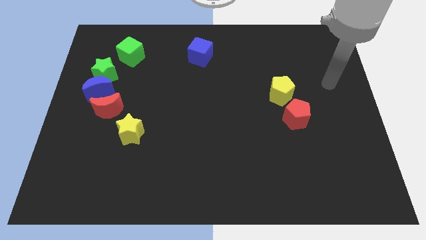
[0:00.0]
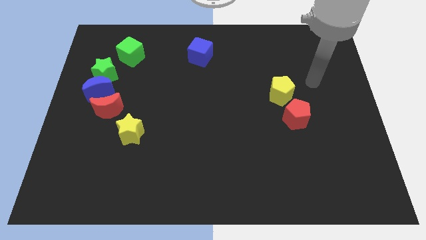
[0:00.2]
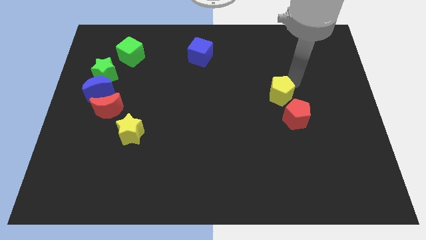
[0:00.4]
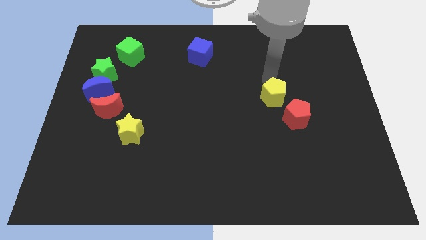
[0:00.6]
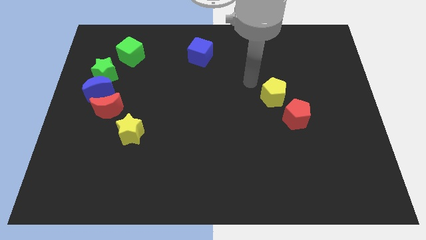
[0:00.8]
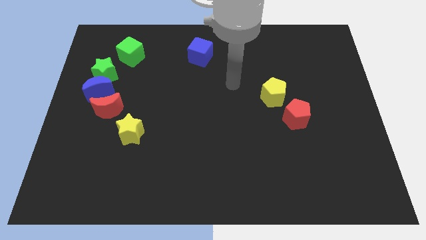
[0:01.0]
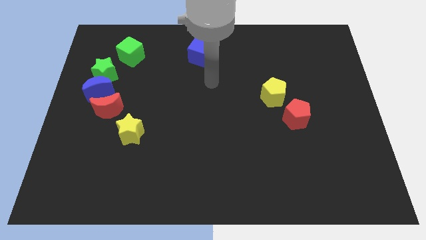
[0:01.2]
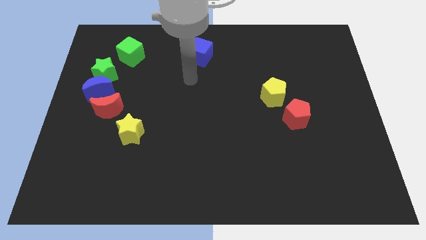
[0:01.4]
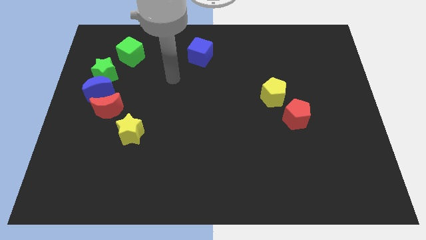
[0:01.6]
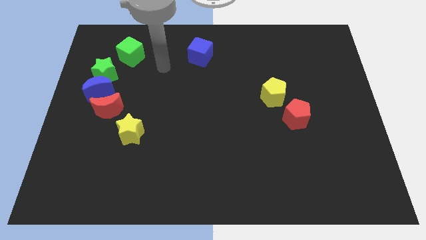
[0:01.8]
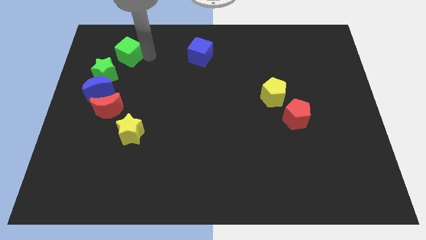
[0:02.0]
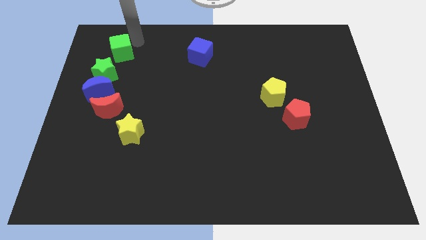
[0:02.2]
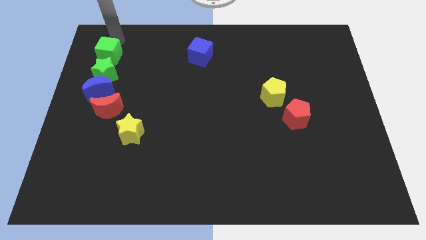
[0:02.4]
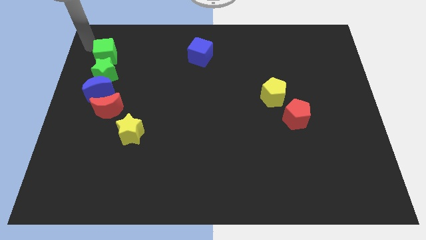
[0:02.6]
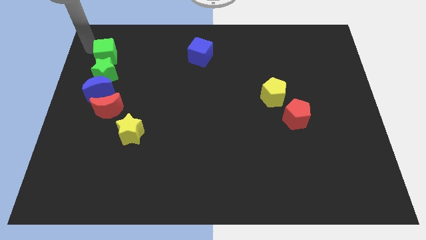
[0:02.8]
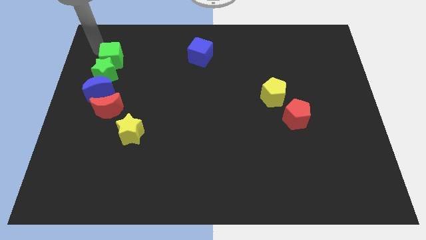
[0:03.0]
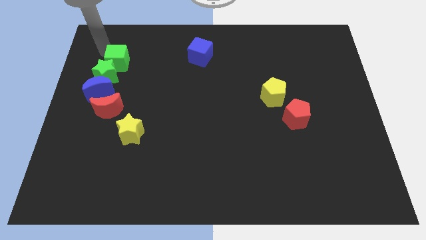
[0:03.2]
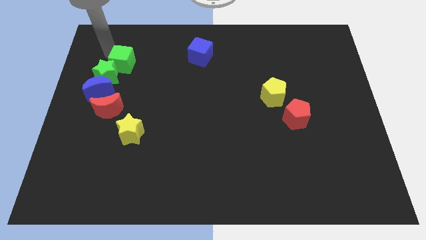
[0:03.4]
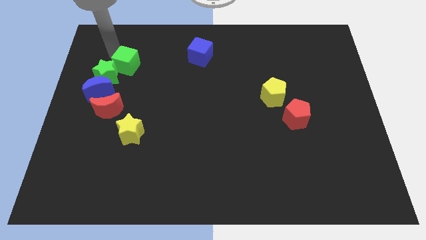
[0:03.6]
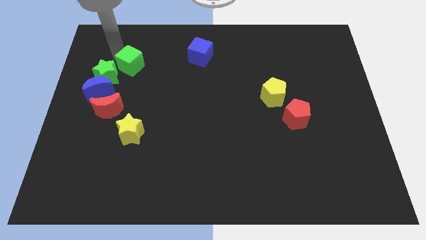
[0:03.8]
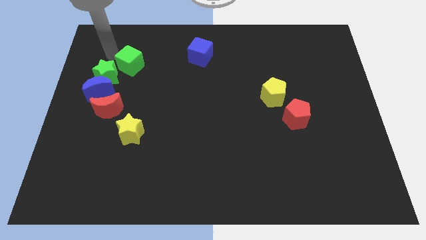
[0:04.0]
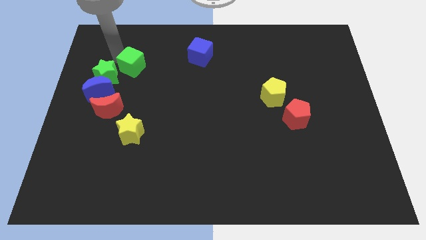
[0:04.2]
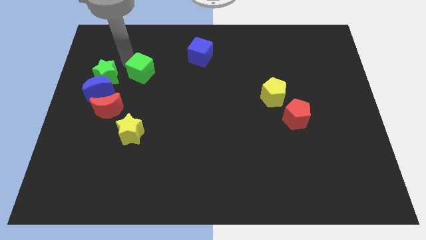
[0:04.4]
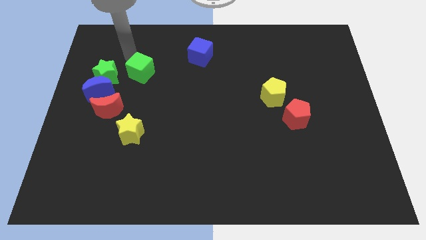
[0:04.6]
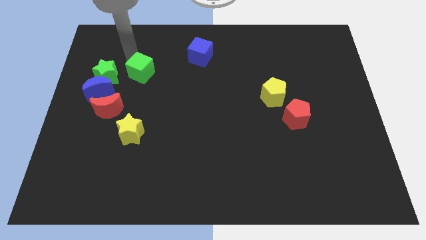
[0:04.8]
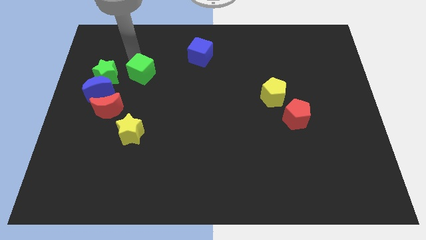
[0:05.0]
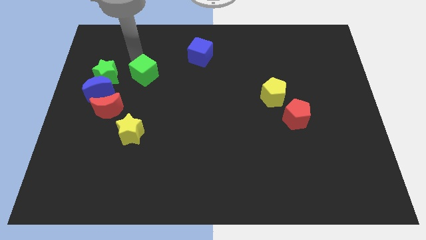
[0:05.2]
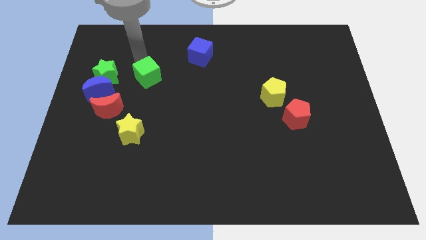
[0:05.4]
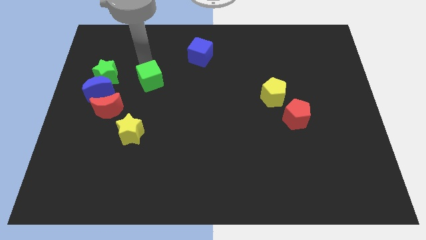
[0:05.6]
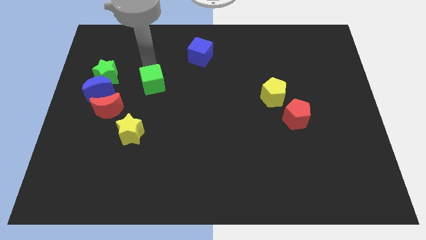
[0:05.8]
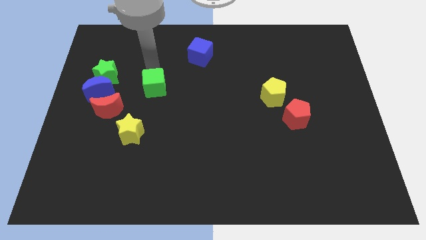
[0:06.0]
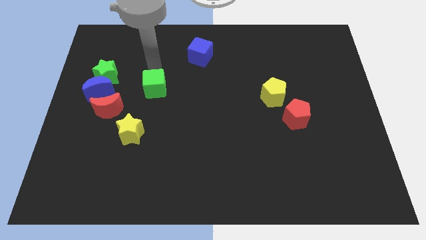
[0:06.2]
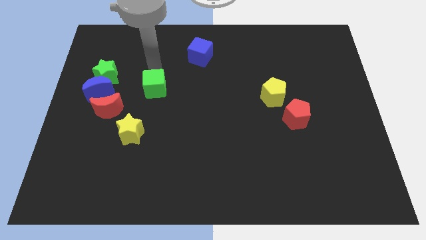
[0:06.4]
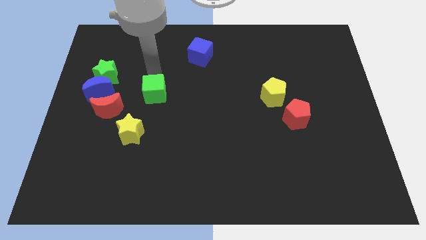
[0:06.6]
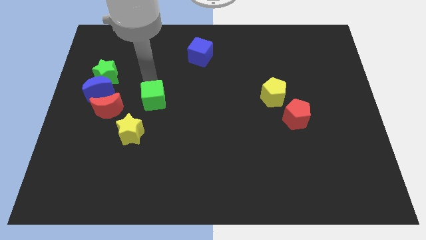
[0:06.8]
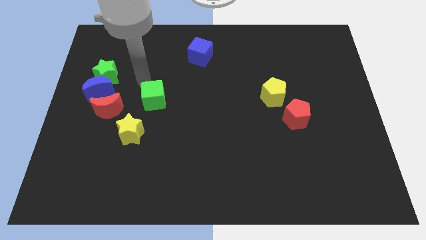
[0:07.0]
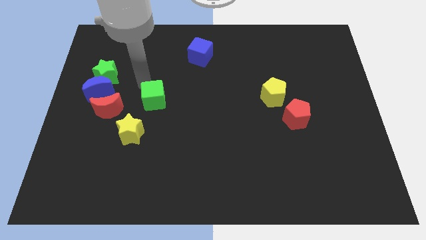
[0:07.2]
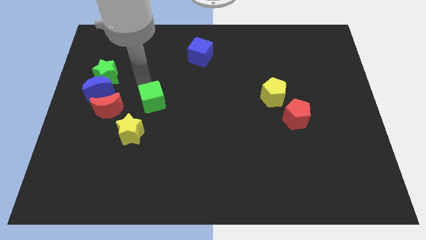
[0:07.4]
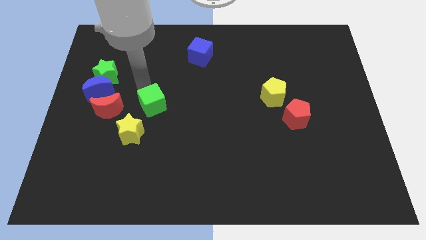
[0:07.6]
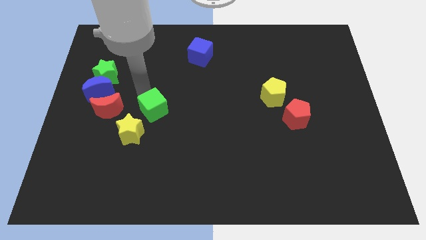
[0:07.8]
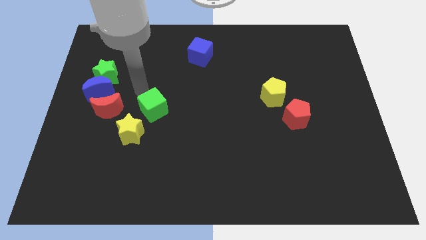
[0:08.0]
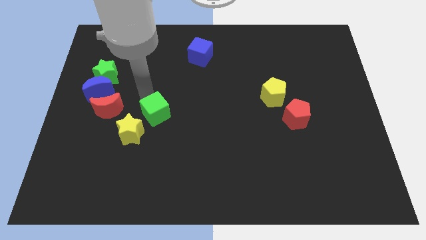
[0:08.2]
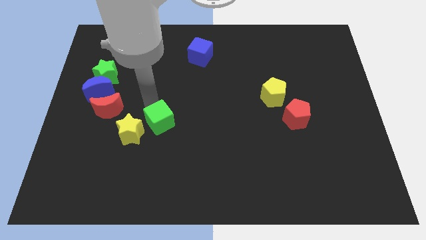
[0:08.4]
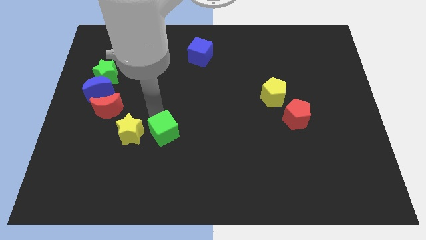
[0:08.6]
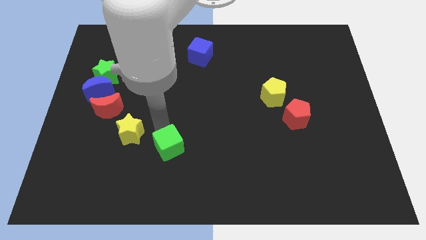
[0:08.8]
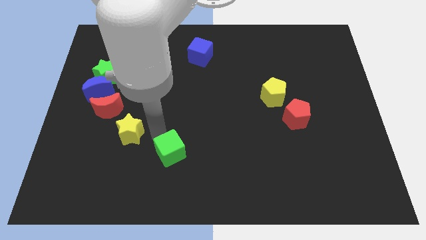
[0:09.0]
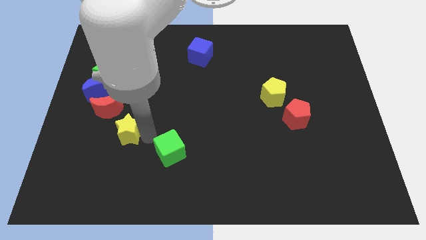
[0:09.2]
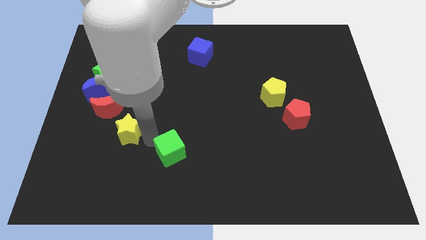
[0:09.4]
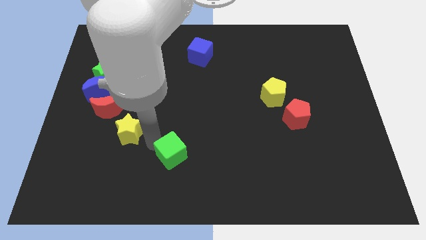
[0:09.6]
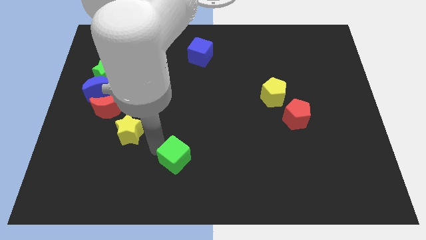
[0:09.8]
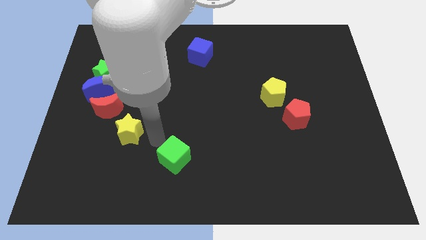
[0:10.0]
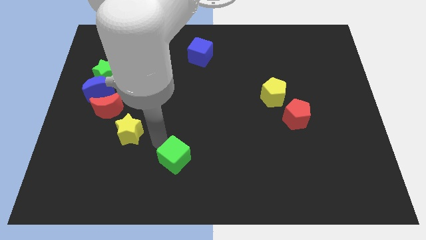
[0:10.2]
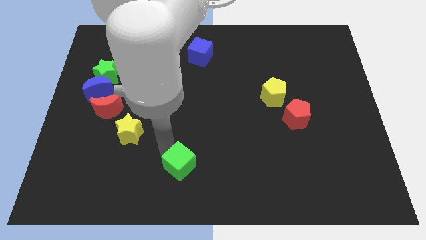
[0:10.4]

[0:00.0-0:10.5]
slide the green cube to the bottom side
